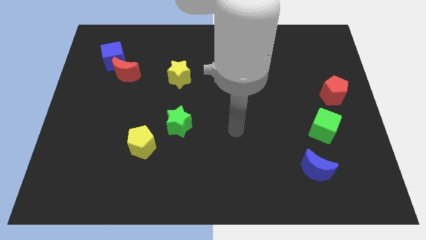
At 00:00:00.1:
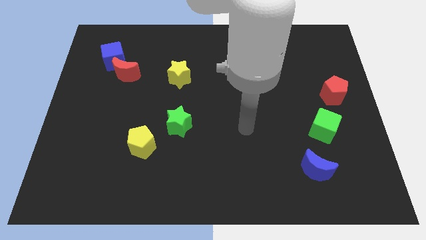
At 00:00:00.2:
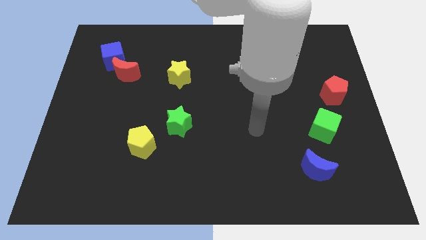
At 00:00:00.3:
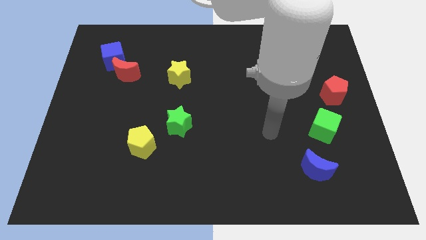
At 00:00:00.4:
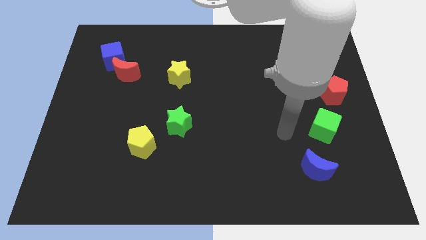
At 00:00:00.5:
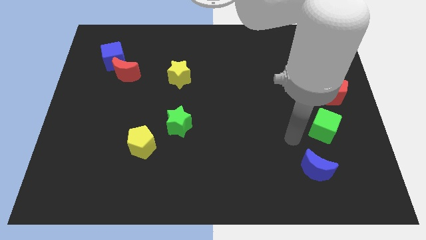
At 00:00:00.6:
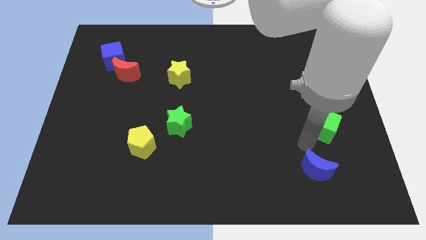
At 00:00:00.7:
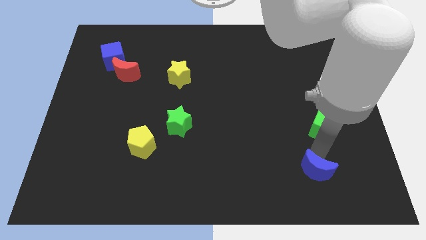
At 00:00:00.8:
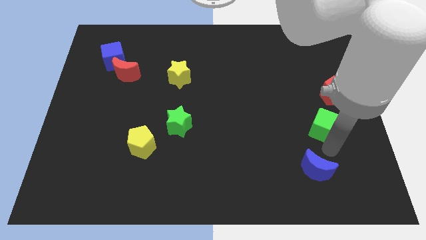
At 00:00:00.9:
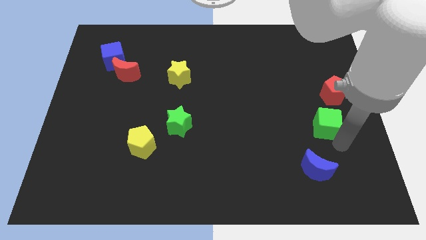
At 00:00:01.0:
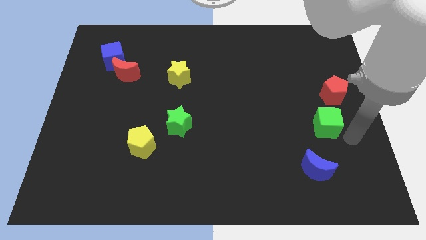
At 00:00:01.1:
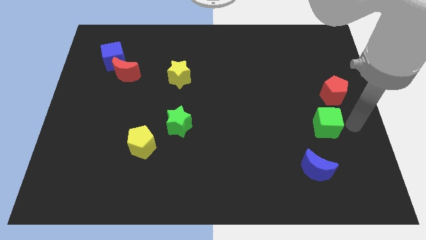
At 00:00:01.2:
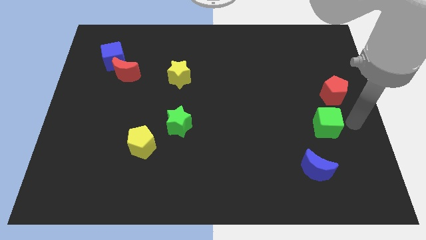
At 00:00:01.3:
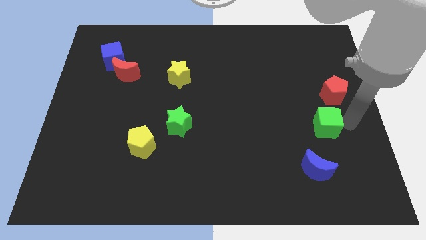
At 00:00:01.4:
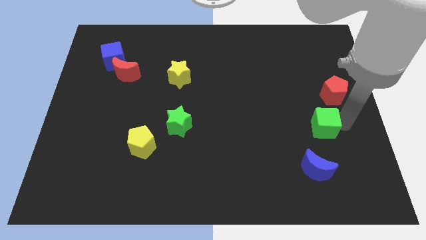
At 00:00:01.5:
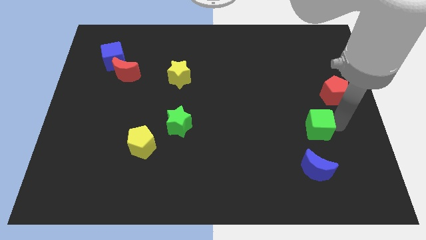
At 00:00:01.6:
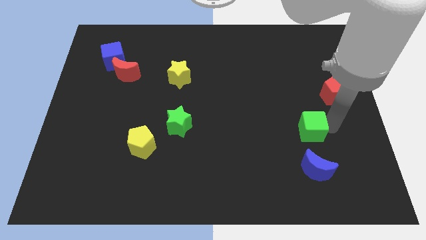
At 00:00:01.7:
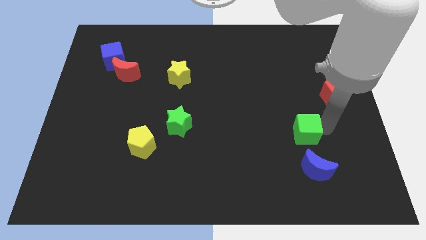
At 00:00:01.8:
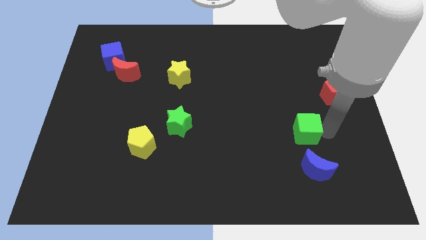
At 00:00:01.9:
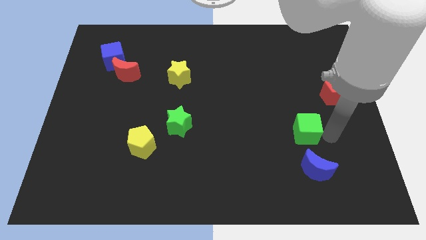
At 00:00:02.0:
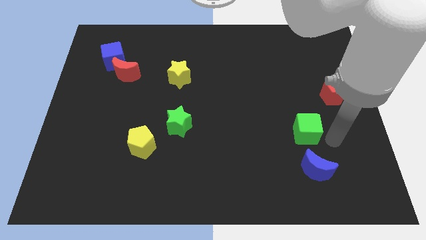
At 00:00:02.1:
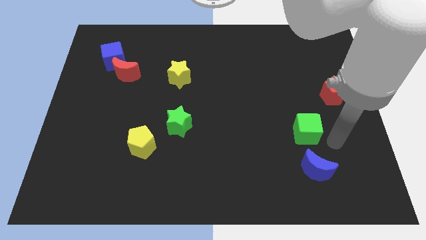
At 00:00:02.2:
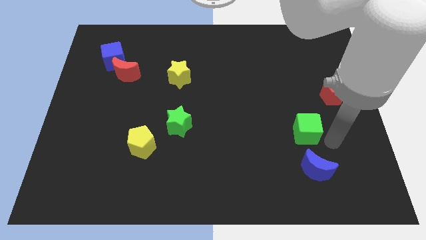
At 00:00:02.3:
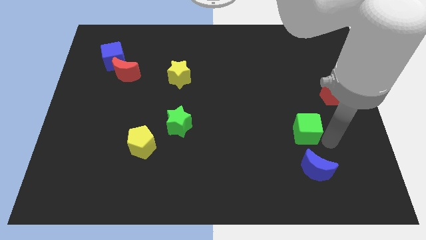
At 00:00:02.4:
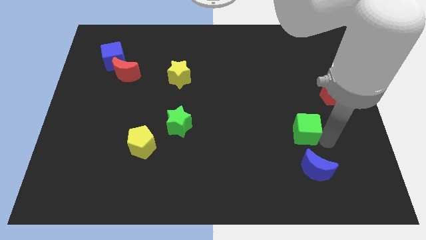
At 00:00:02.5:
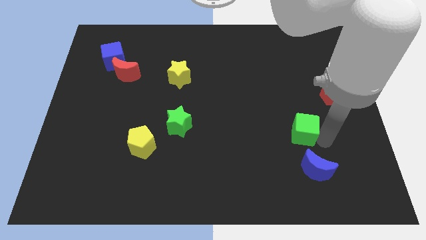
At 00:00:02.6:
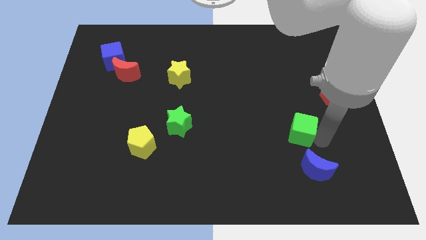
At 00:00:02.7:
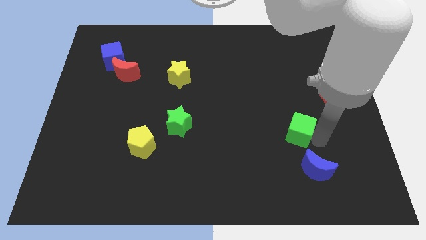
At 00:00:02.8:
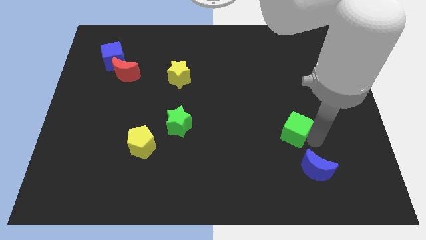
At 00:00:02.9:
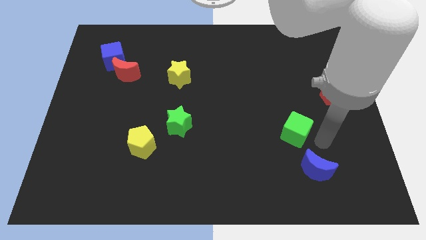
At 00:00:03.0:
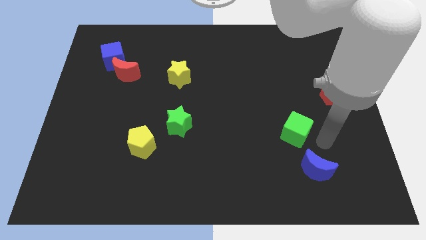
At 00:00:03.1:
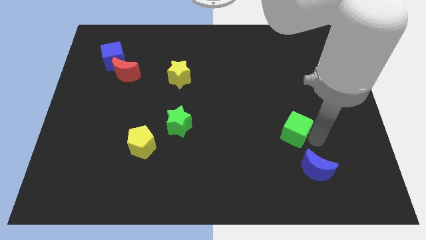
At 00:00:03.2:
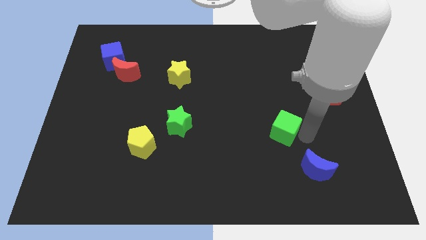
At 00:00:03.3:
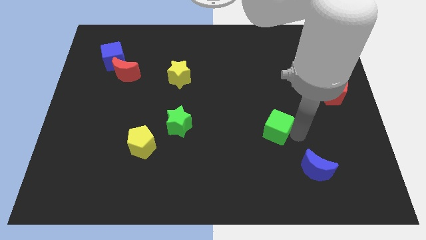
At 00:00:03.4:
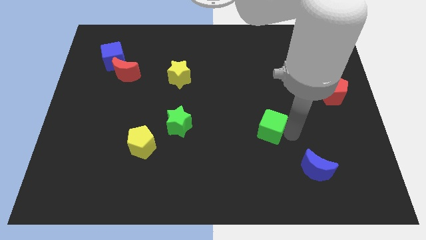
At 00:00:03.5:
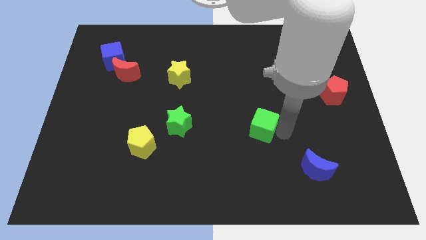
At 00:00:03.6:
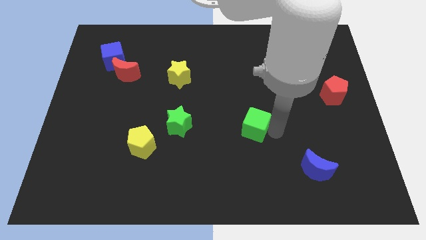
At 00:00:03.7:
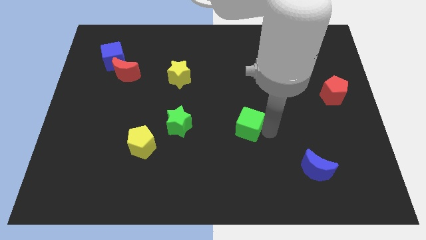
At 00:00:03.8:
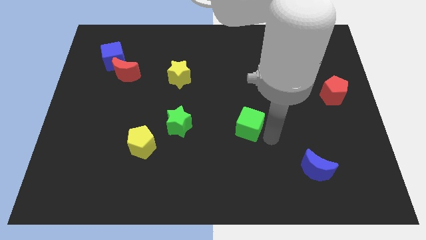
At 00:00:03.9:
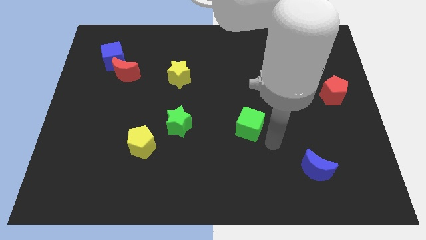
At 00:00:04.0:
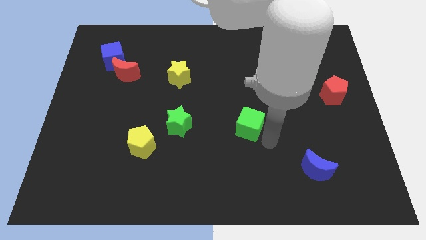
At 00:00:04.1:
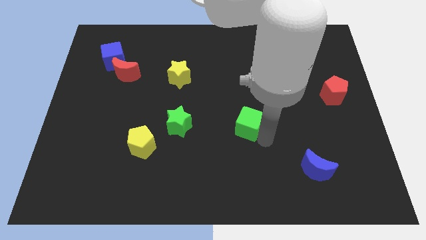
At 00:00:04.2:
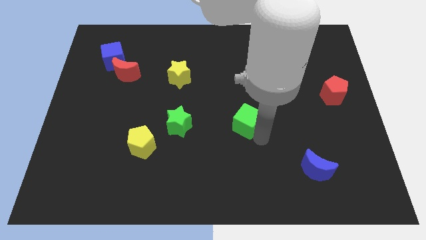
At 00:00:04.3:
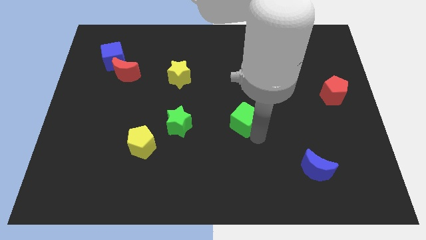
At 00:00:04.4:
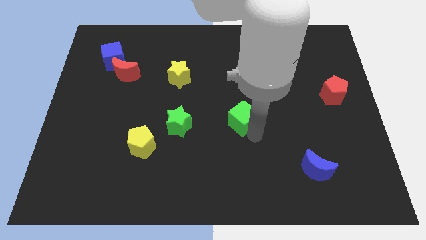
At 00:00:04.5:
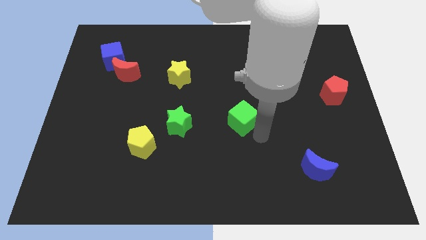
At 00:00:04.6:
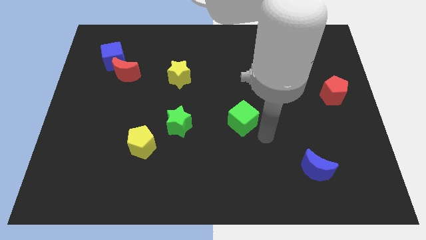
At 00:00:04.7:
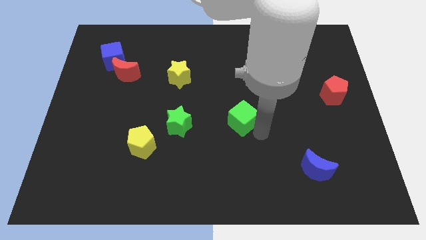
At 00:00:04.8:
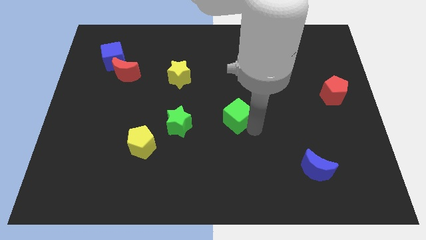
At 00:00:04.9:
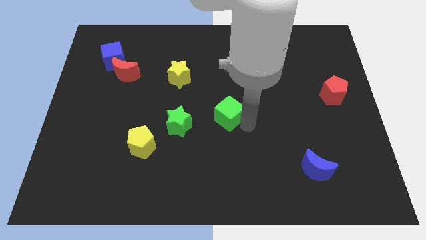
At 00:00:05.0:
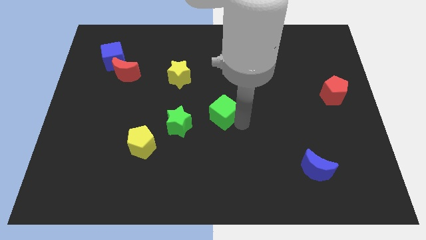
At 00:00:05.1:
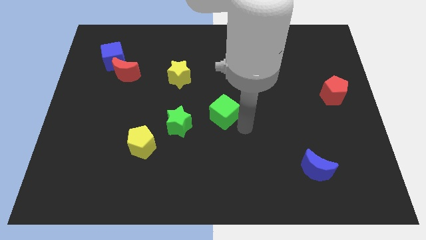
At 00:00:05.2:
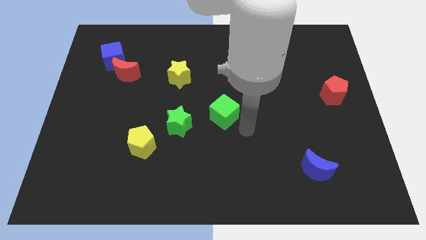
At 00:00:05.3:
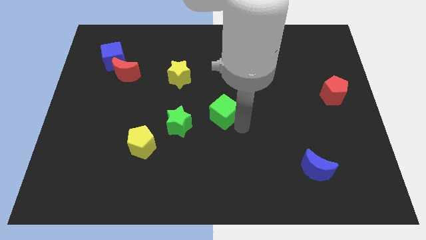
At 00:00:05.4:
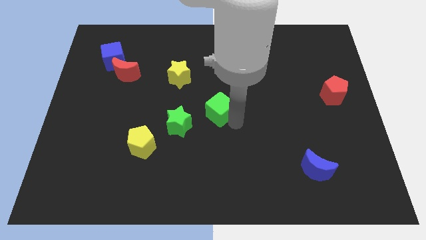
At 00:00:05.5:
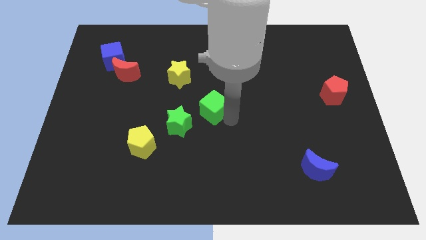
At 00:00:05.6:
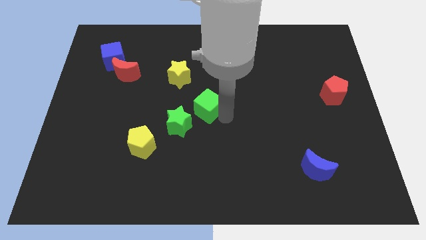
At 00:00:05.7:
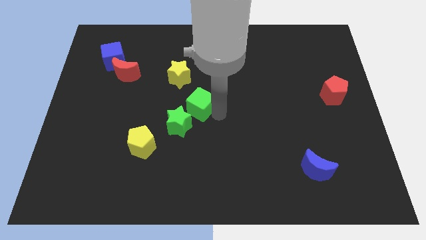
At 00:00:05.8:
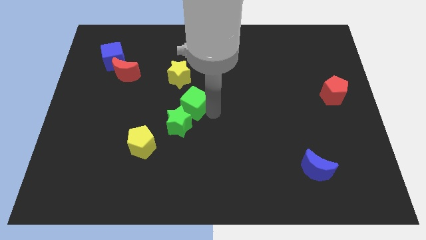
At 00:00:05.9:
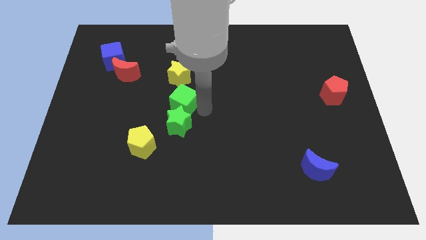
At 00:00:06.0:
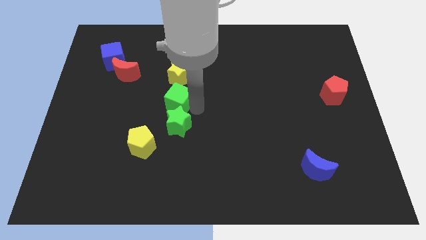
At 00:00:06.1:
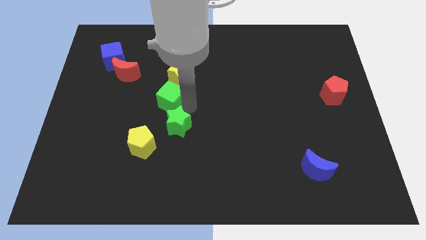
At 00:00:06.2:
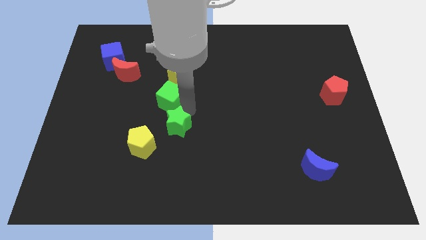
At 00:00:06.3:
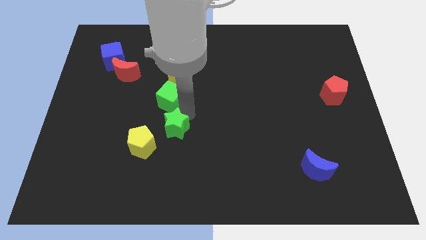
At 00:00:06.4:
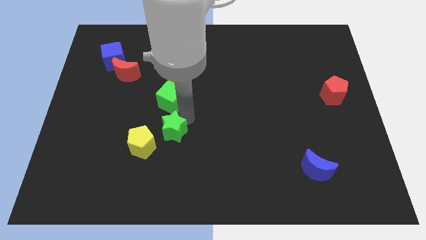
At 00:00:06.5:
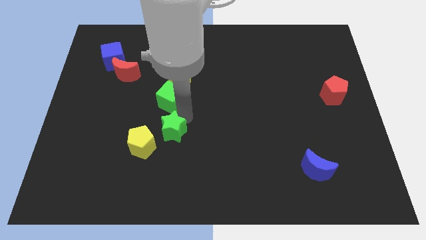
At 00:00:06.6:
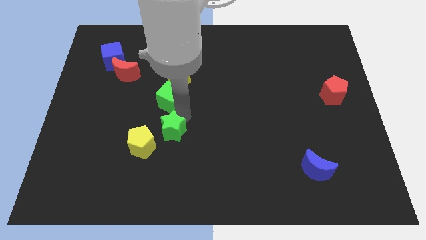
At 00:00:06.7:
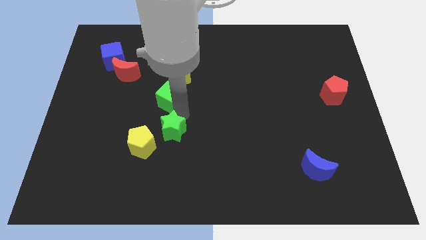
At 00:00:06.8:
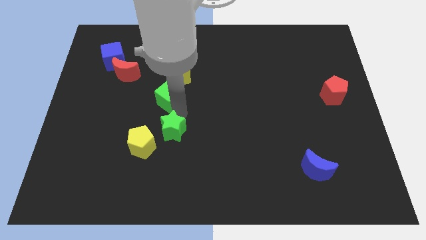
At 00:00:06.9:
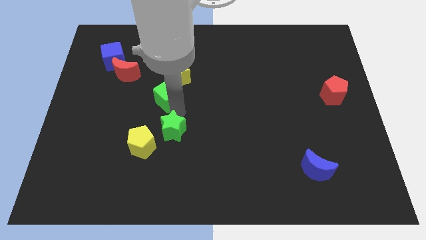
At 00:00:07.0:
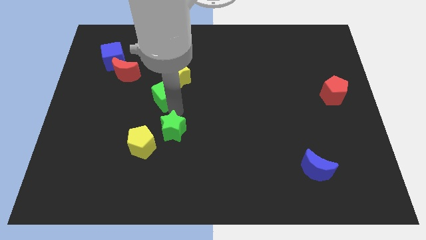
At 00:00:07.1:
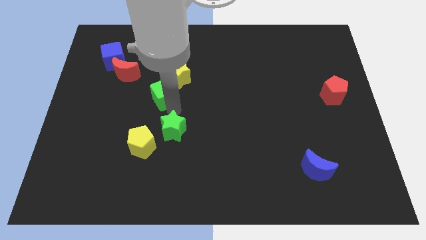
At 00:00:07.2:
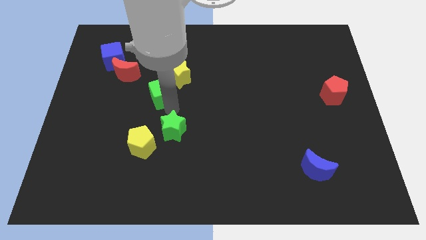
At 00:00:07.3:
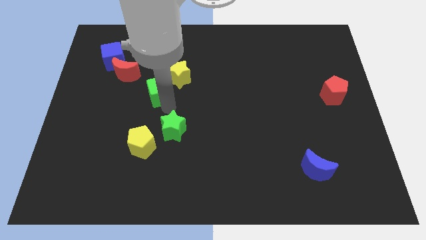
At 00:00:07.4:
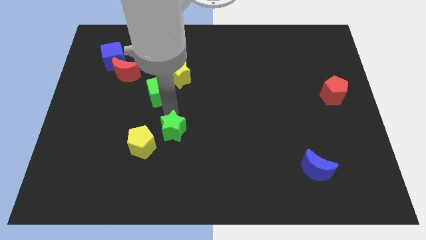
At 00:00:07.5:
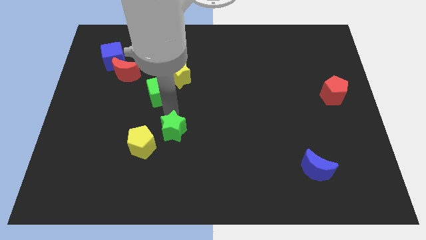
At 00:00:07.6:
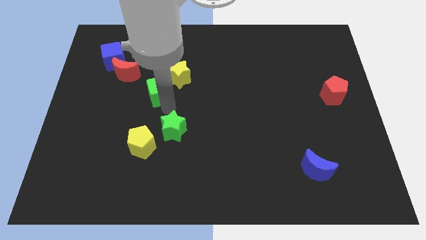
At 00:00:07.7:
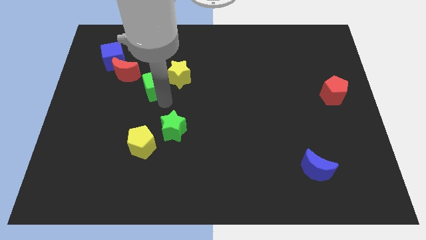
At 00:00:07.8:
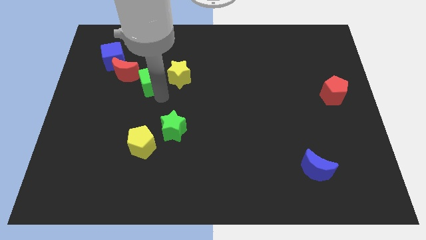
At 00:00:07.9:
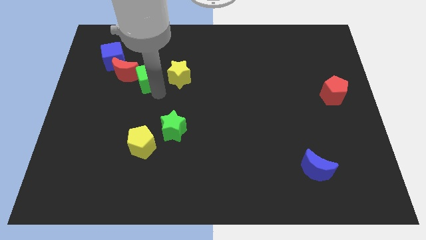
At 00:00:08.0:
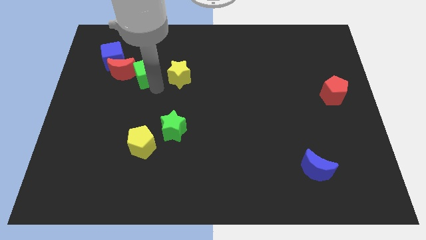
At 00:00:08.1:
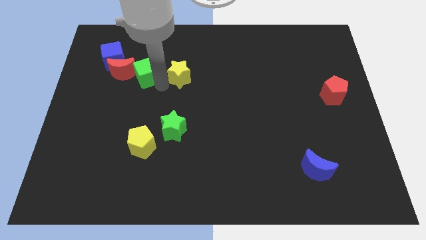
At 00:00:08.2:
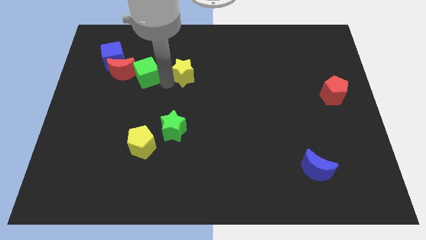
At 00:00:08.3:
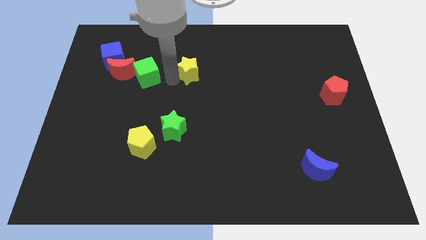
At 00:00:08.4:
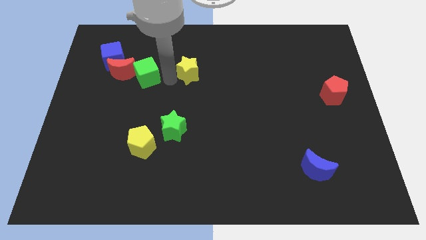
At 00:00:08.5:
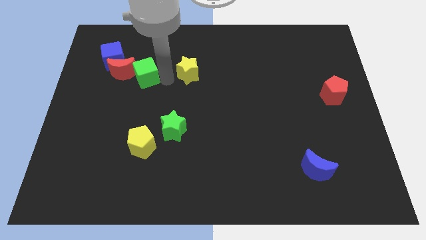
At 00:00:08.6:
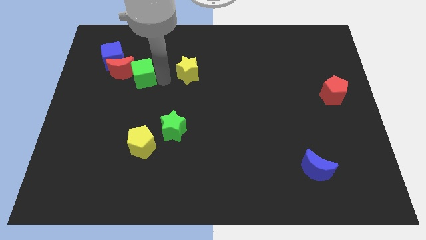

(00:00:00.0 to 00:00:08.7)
slide the green cube towards the red moon
